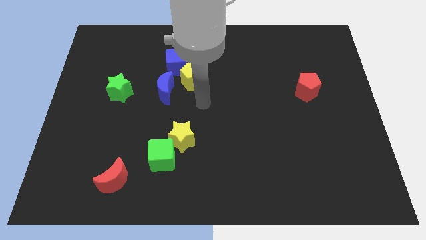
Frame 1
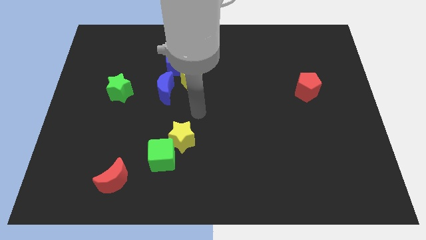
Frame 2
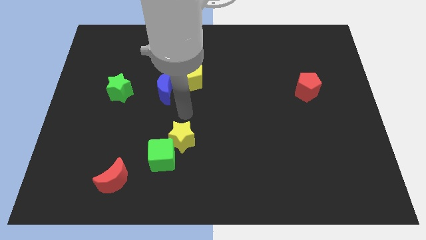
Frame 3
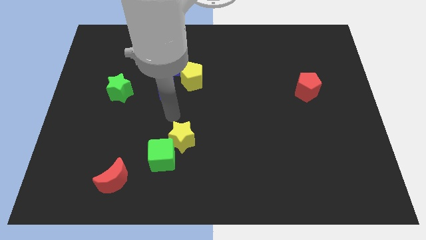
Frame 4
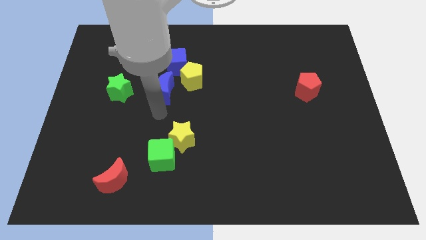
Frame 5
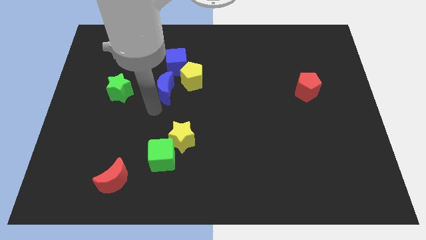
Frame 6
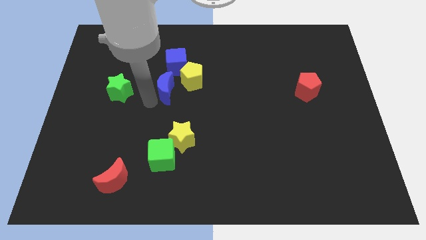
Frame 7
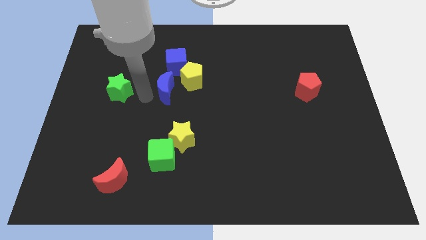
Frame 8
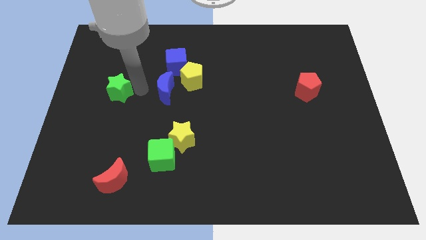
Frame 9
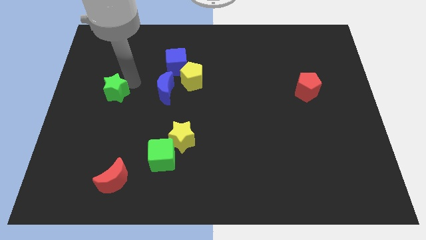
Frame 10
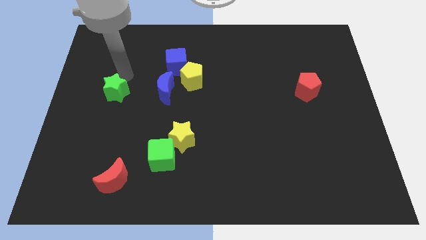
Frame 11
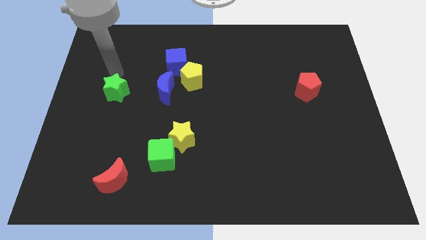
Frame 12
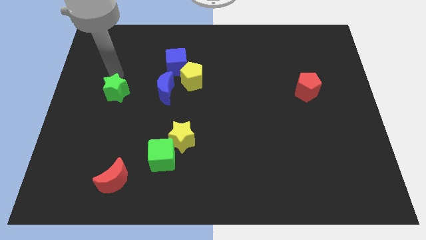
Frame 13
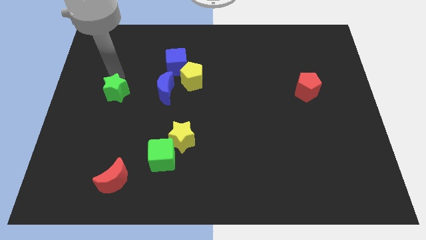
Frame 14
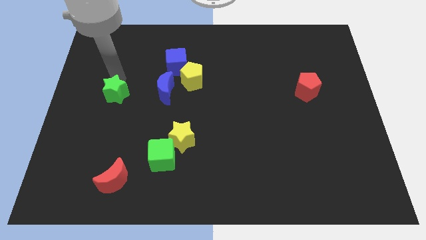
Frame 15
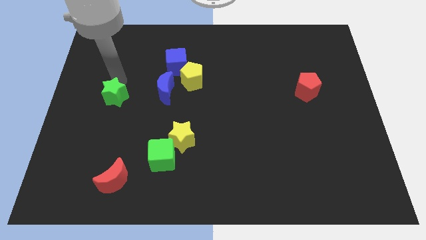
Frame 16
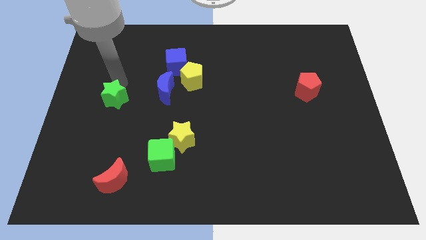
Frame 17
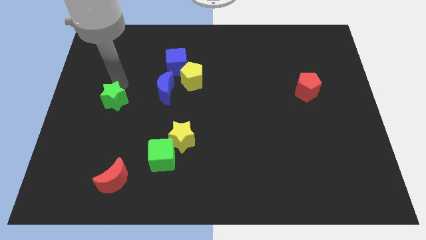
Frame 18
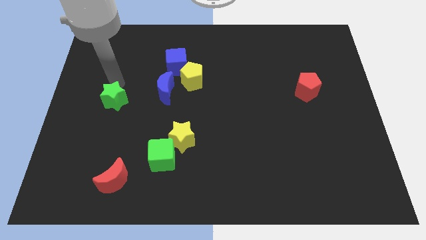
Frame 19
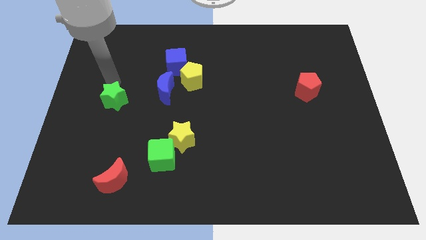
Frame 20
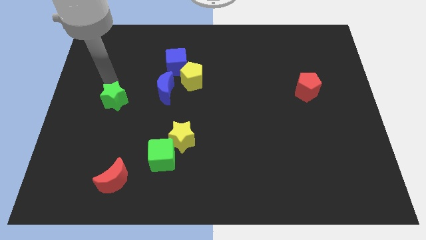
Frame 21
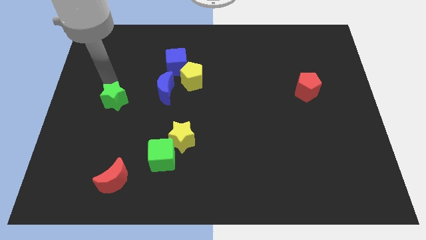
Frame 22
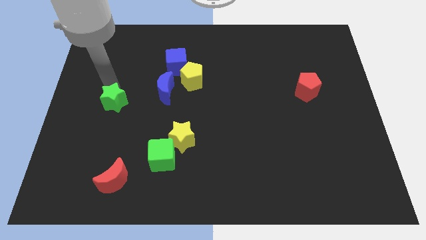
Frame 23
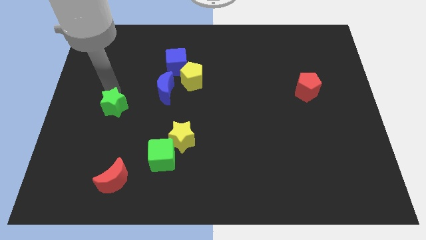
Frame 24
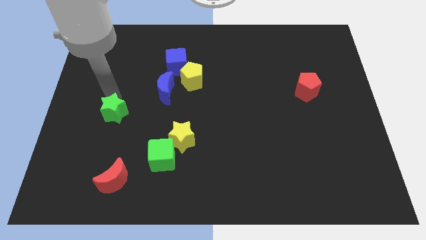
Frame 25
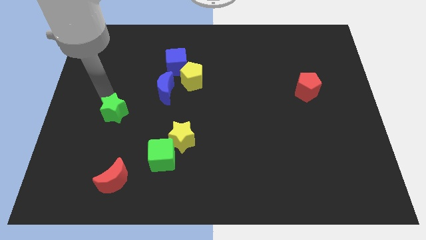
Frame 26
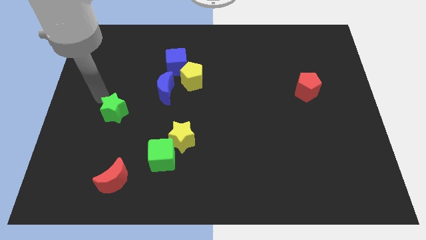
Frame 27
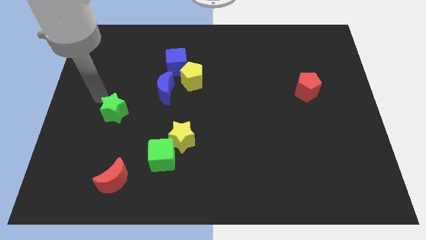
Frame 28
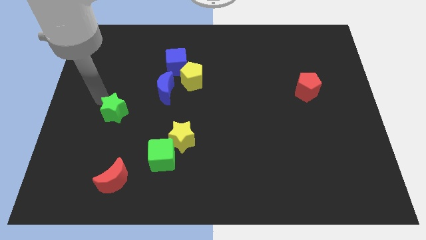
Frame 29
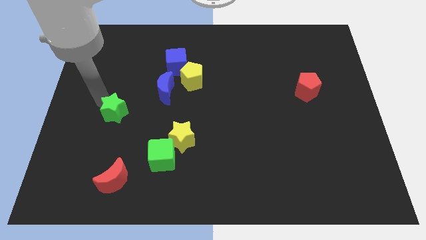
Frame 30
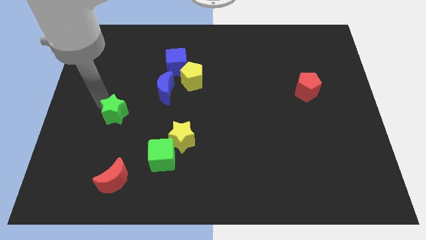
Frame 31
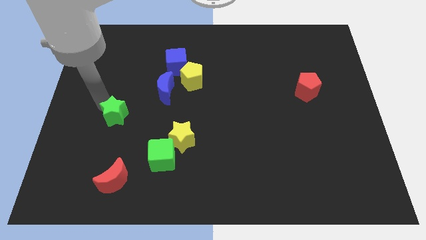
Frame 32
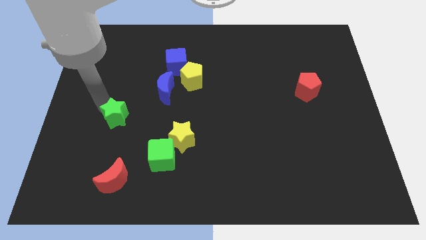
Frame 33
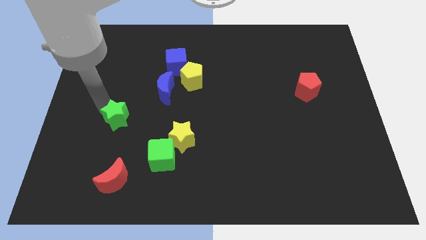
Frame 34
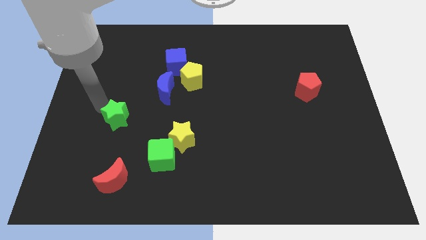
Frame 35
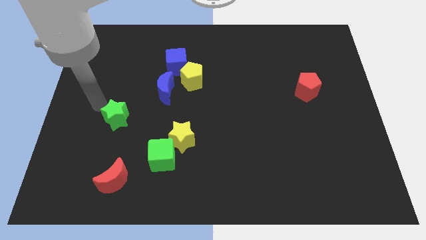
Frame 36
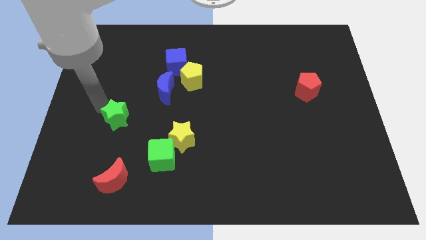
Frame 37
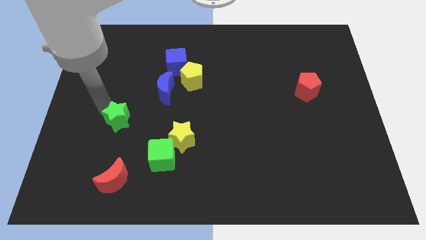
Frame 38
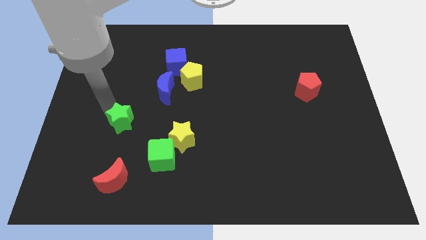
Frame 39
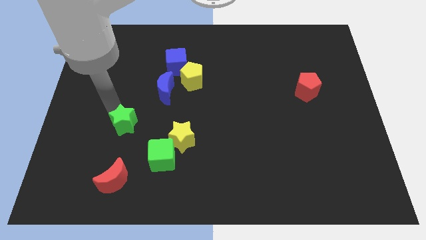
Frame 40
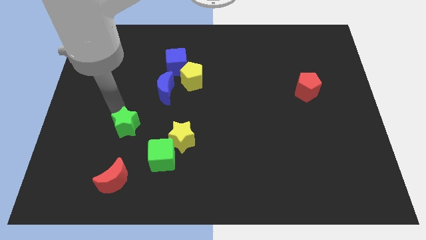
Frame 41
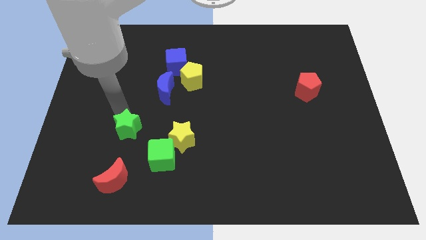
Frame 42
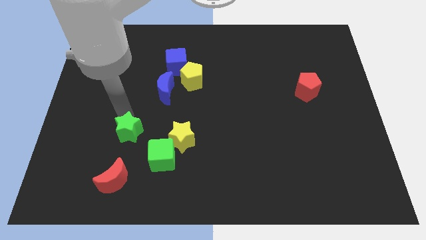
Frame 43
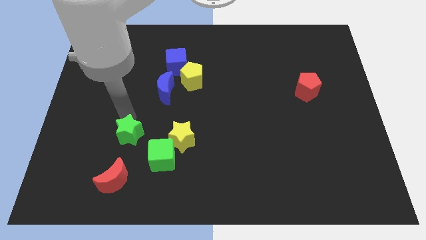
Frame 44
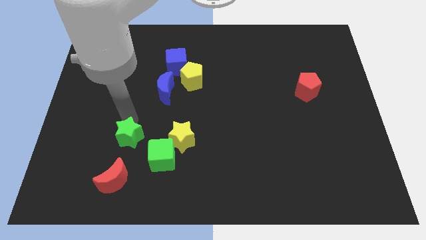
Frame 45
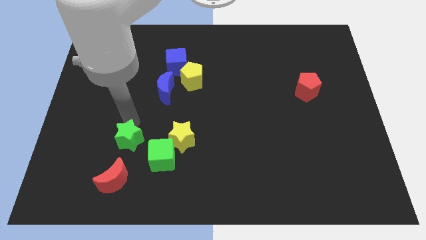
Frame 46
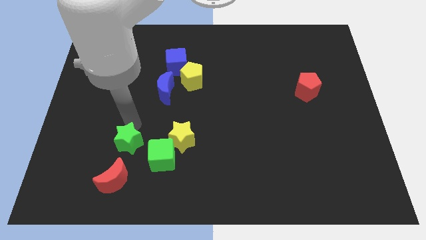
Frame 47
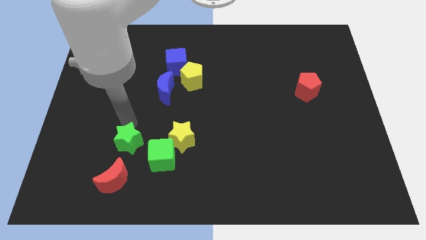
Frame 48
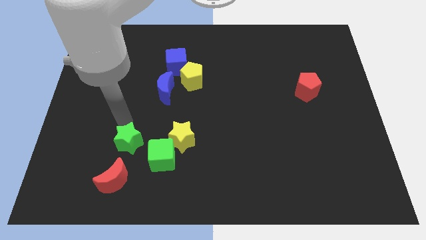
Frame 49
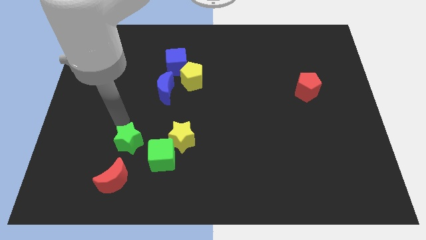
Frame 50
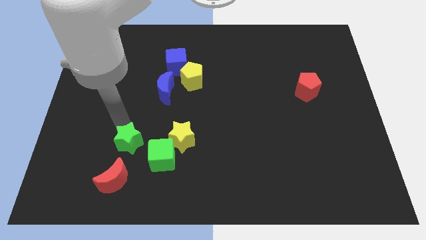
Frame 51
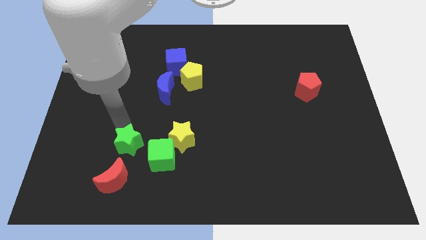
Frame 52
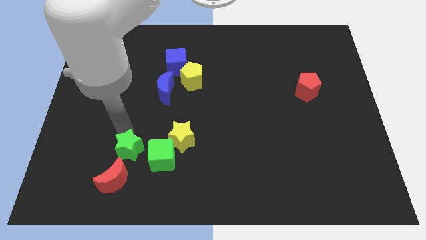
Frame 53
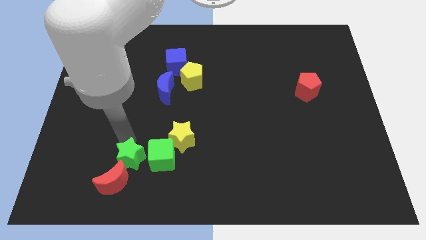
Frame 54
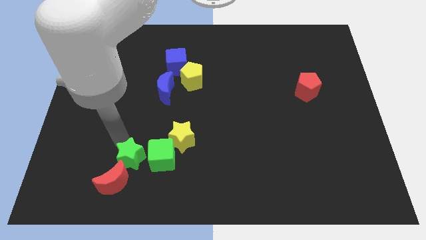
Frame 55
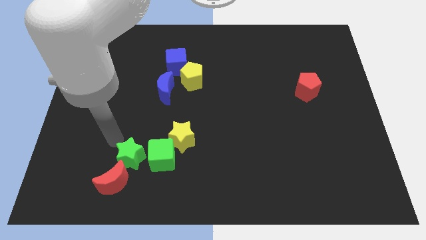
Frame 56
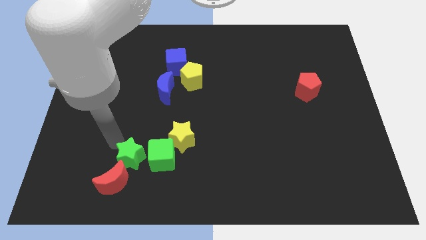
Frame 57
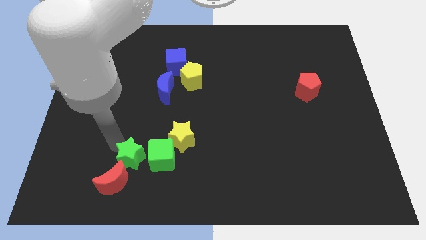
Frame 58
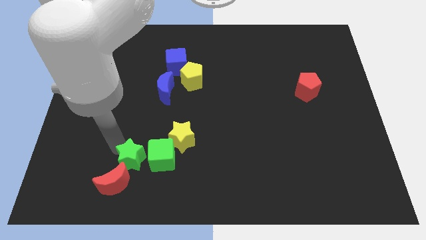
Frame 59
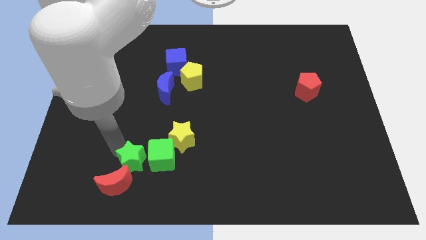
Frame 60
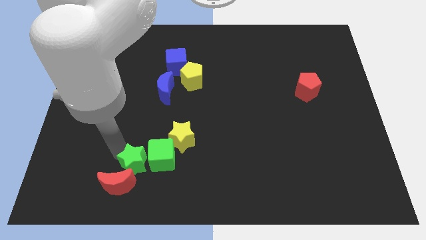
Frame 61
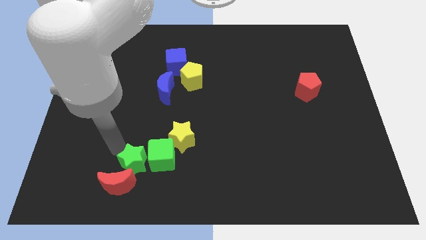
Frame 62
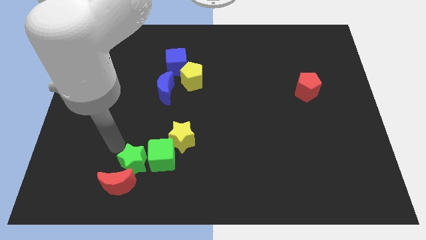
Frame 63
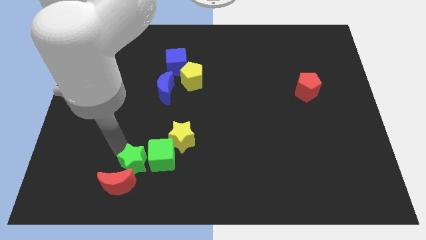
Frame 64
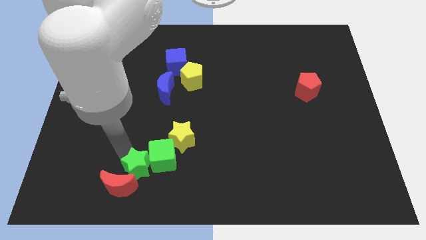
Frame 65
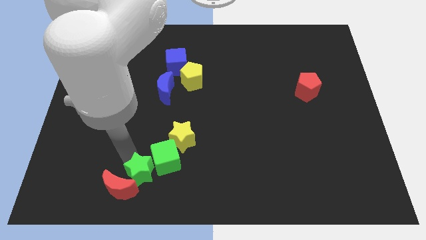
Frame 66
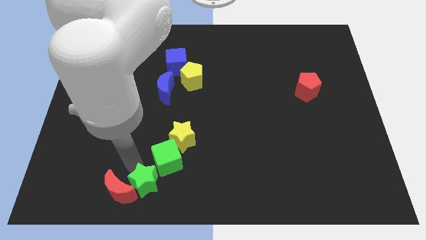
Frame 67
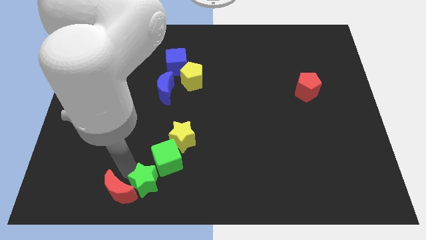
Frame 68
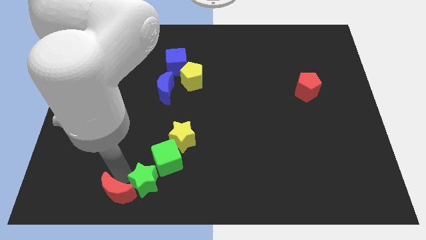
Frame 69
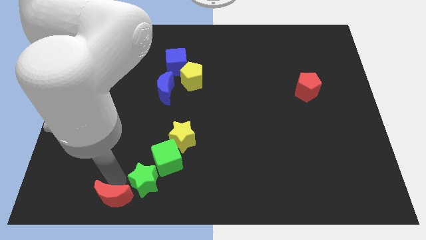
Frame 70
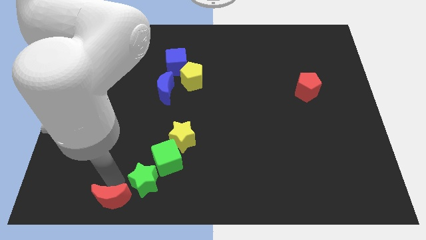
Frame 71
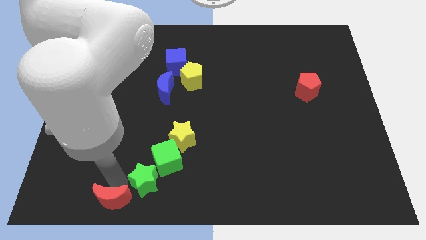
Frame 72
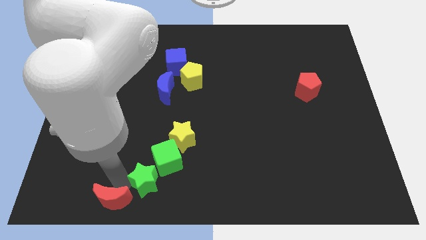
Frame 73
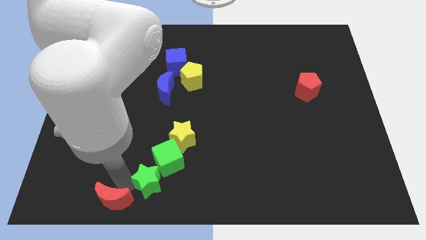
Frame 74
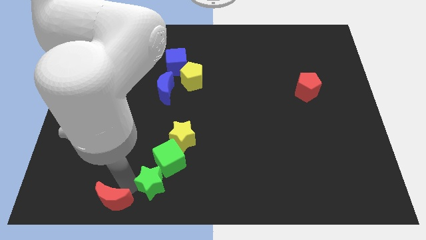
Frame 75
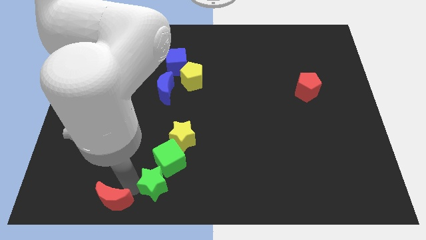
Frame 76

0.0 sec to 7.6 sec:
move the green star below the yellow star
